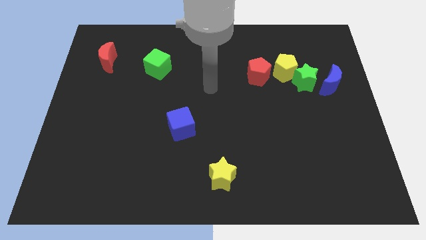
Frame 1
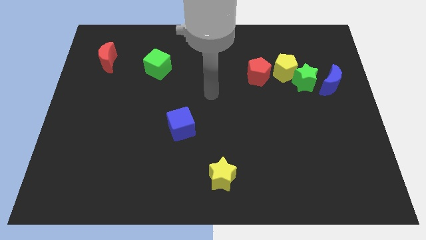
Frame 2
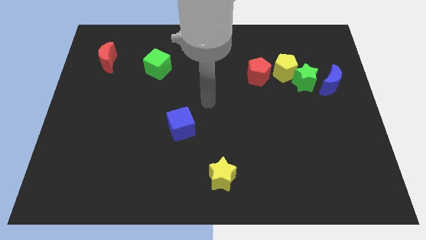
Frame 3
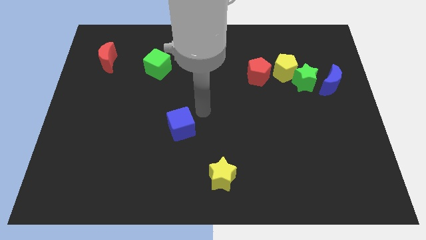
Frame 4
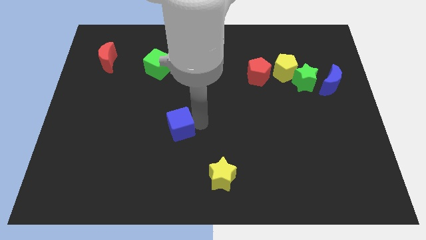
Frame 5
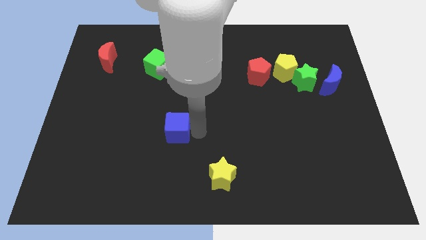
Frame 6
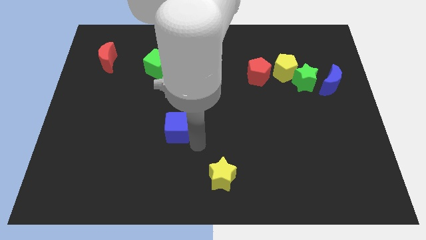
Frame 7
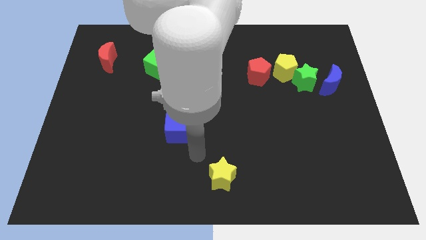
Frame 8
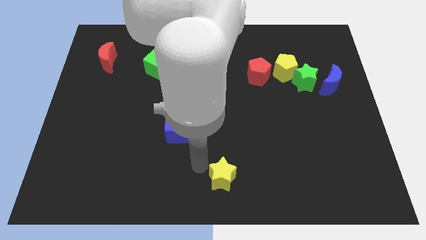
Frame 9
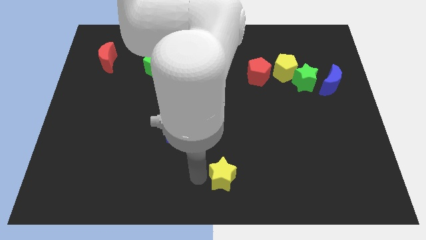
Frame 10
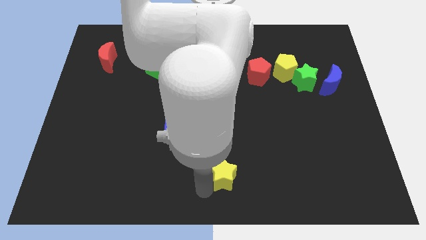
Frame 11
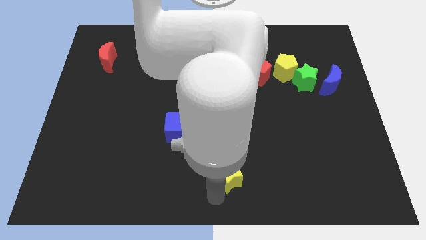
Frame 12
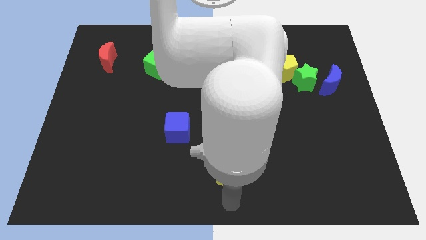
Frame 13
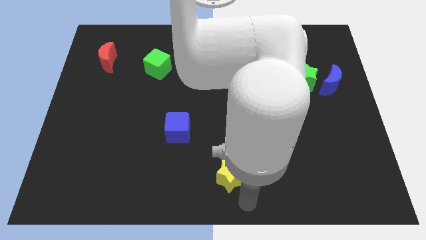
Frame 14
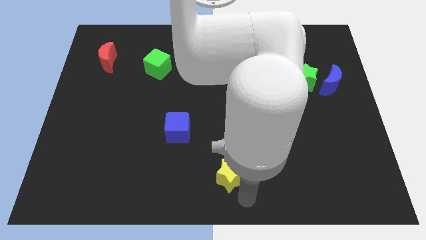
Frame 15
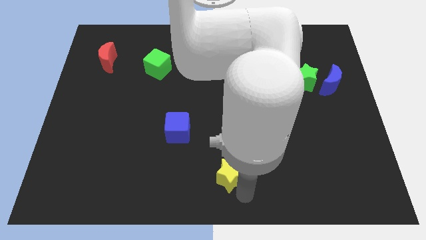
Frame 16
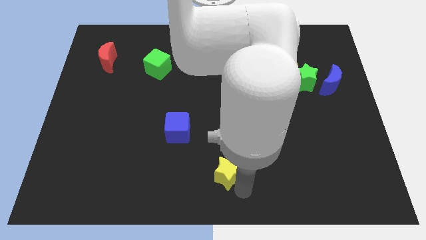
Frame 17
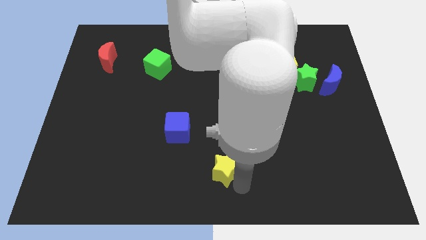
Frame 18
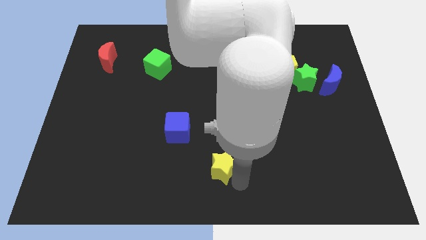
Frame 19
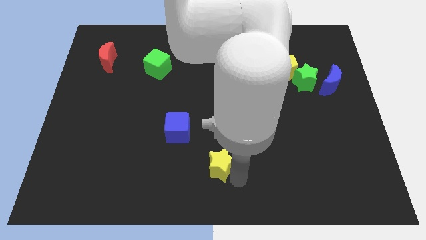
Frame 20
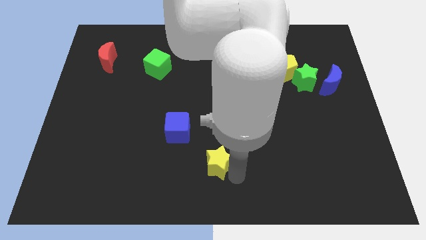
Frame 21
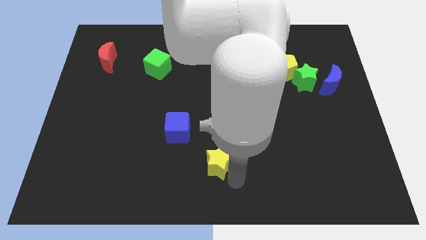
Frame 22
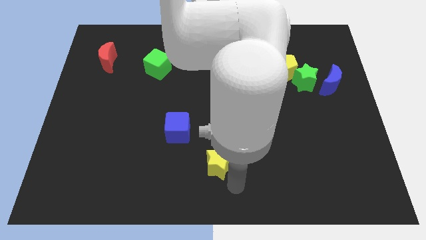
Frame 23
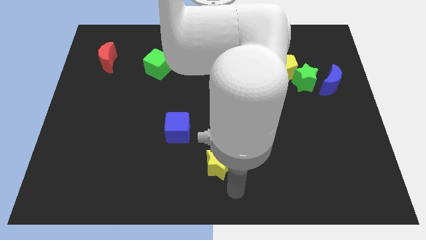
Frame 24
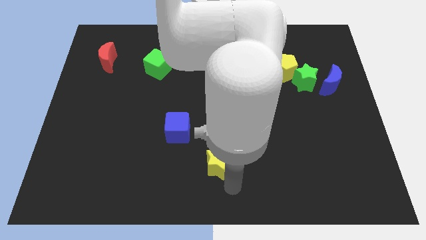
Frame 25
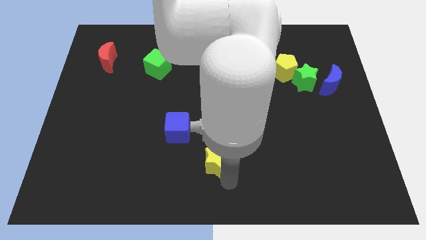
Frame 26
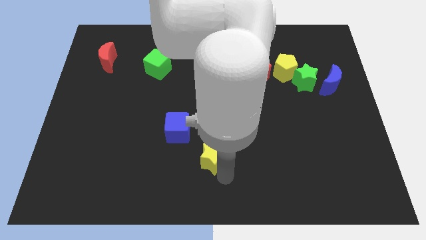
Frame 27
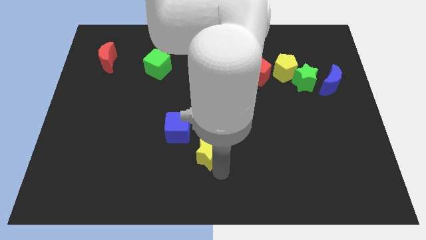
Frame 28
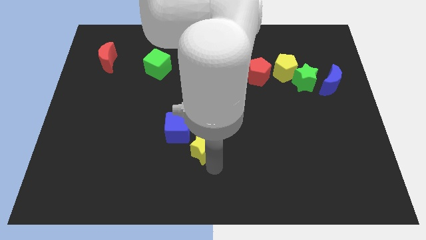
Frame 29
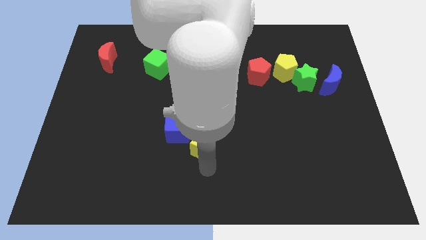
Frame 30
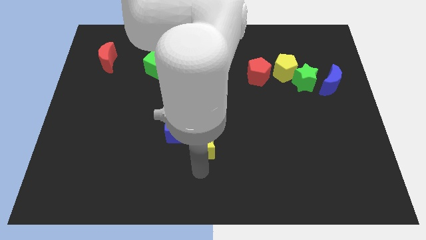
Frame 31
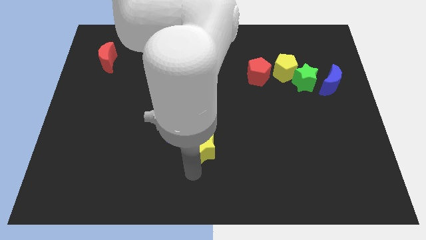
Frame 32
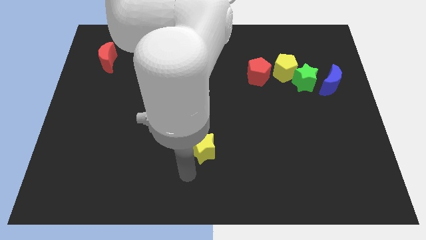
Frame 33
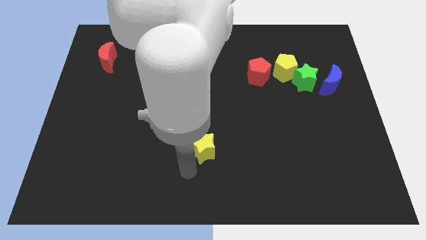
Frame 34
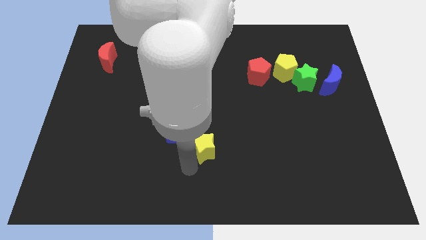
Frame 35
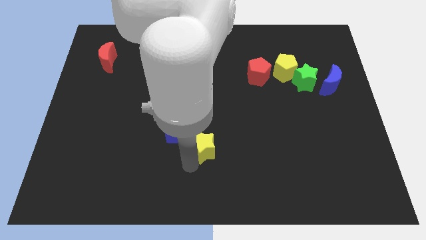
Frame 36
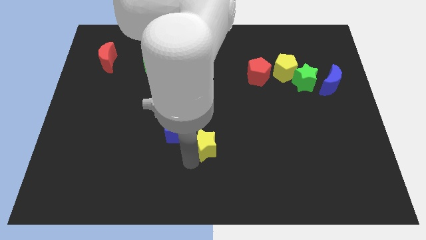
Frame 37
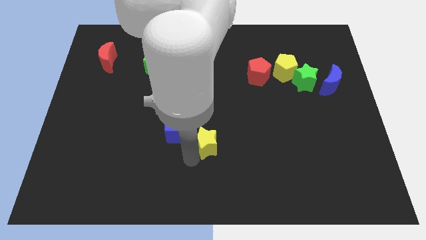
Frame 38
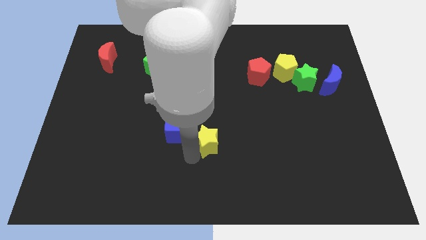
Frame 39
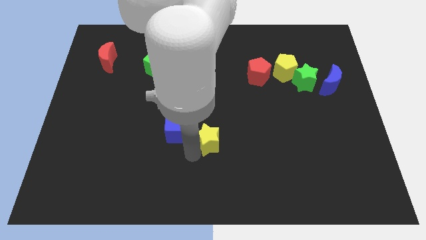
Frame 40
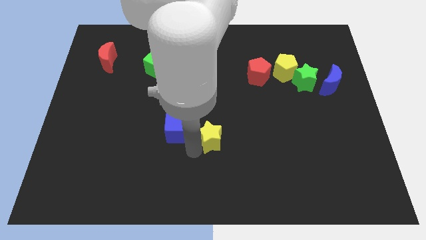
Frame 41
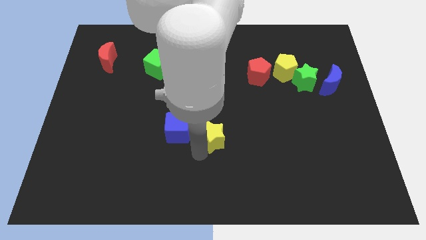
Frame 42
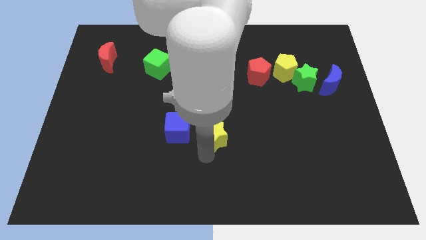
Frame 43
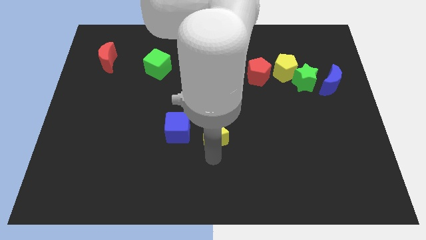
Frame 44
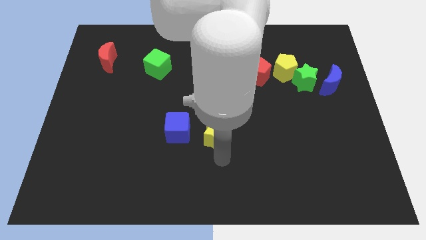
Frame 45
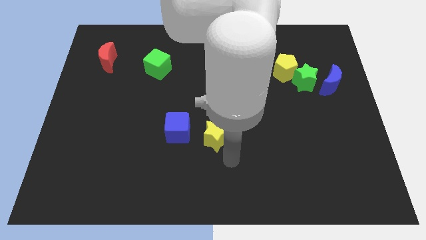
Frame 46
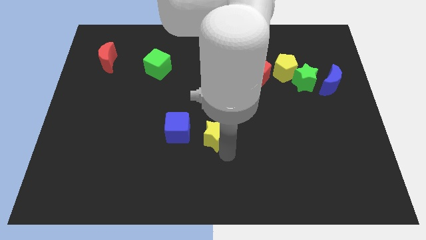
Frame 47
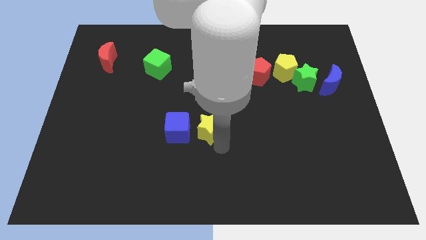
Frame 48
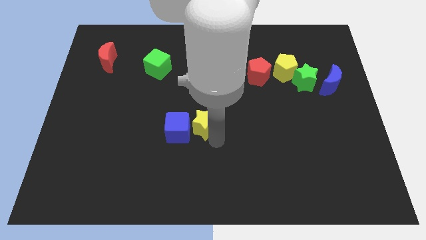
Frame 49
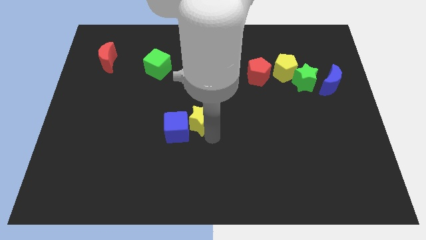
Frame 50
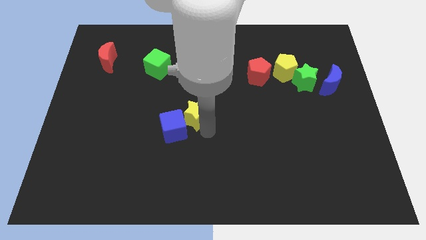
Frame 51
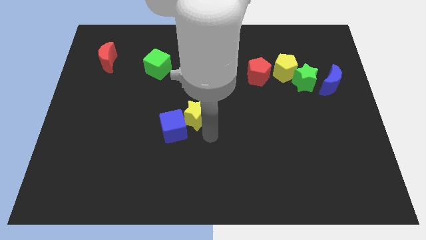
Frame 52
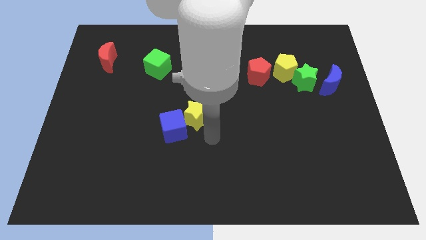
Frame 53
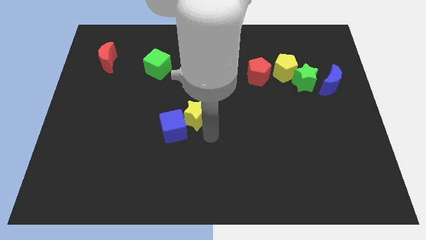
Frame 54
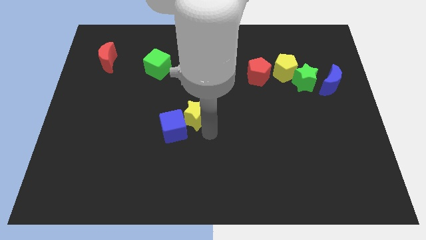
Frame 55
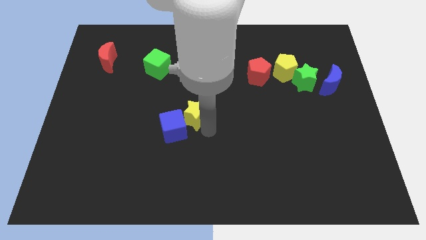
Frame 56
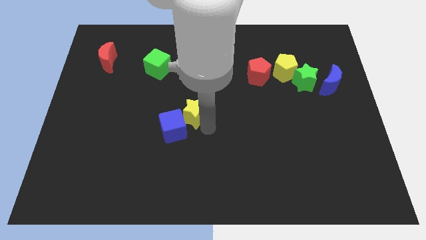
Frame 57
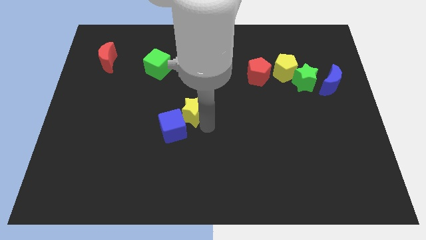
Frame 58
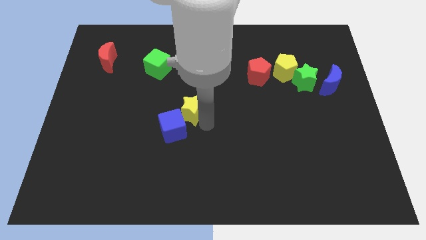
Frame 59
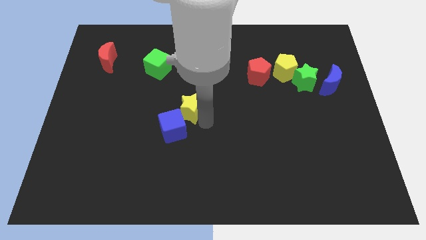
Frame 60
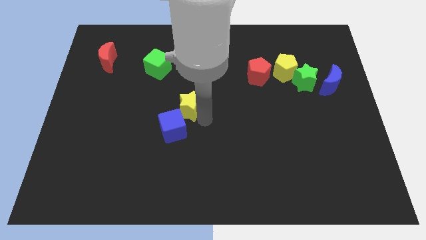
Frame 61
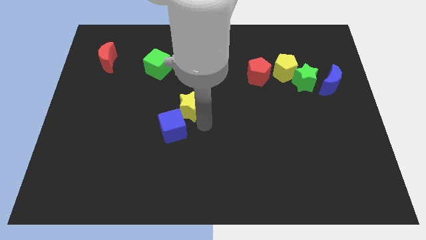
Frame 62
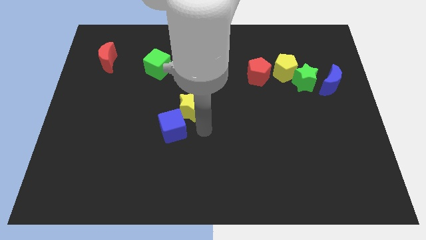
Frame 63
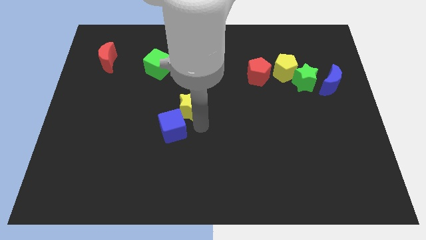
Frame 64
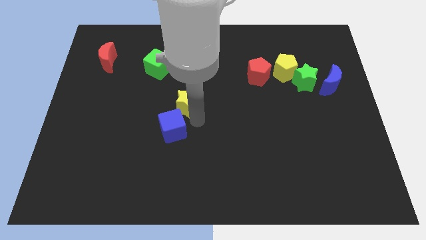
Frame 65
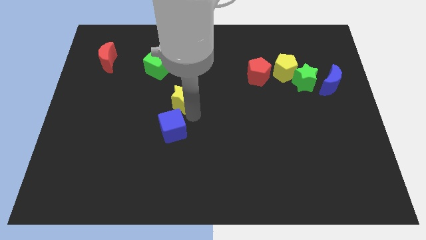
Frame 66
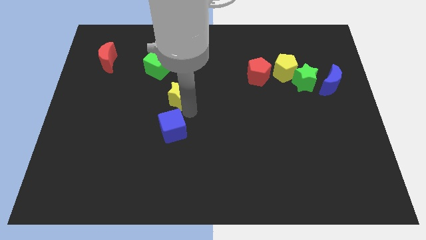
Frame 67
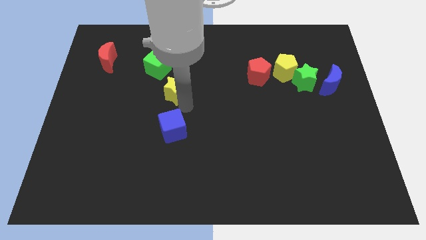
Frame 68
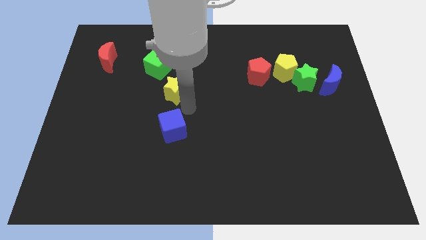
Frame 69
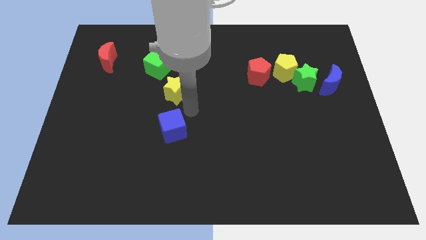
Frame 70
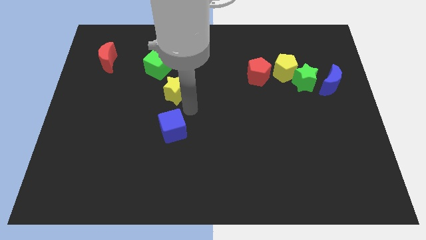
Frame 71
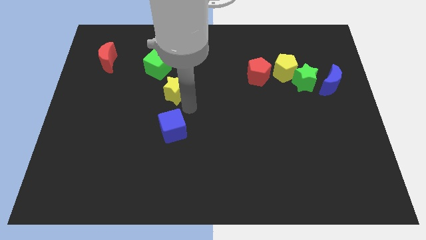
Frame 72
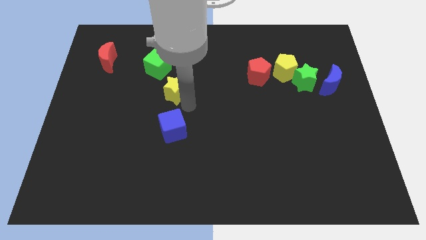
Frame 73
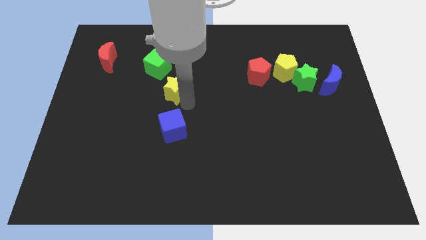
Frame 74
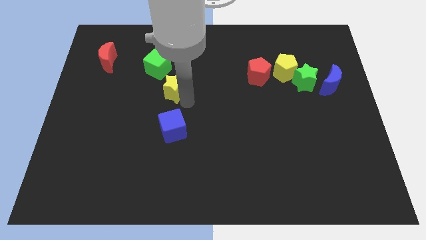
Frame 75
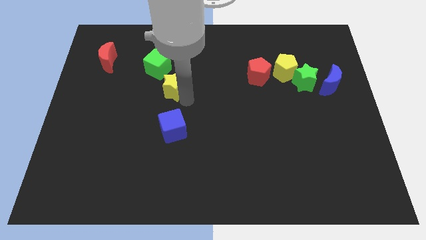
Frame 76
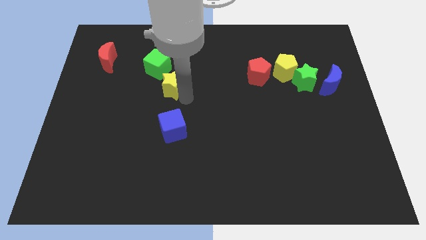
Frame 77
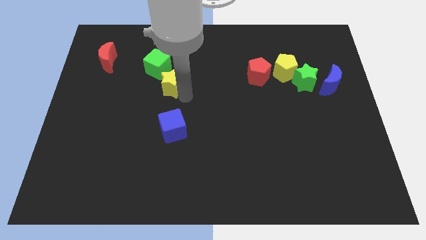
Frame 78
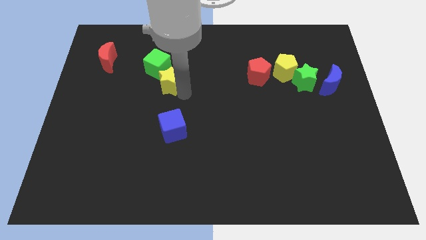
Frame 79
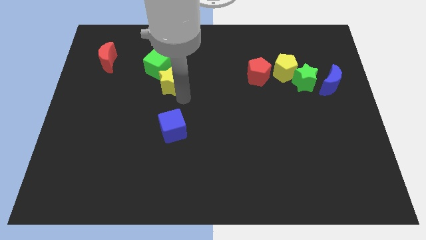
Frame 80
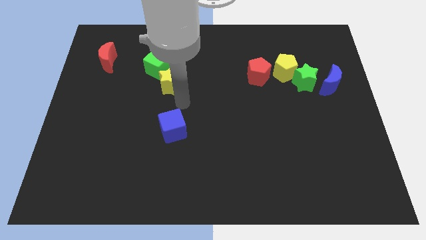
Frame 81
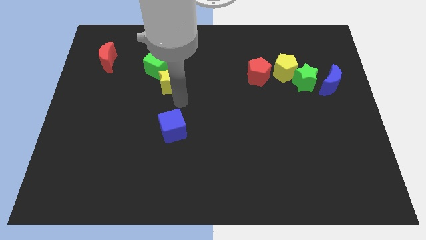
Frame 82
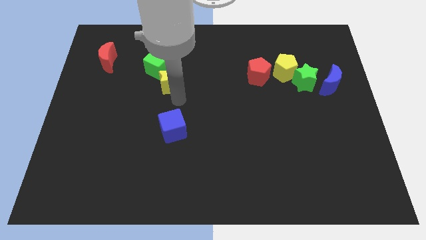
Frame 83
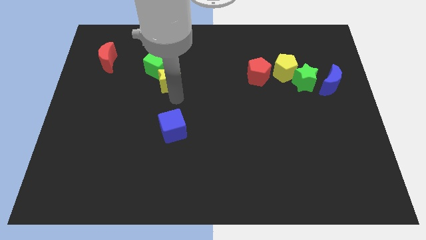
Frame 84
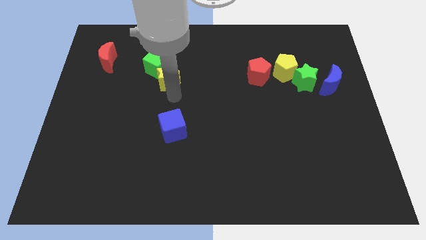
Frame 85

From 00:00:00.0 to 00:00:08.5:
slide the yellow star close to the green cube

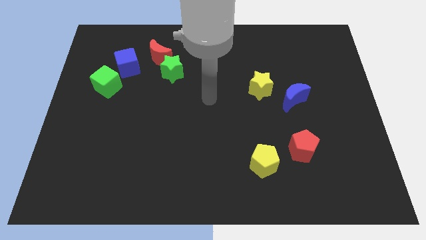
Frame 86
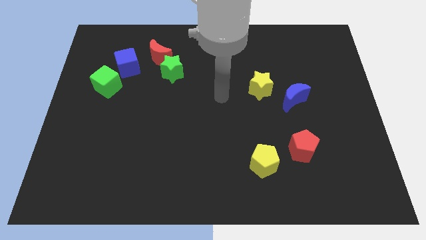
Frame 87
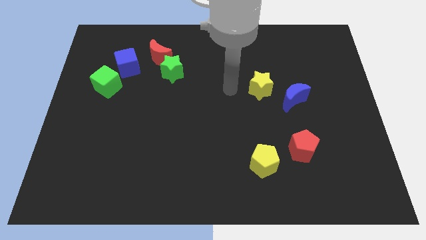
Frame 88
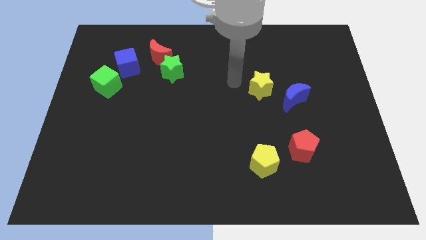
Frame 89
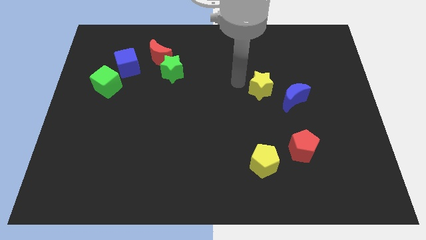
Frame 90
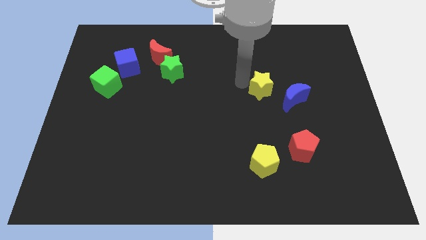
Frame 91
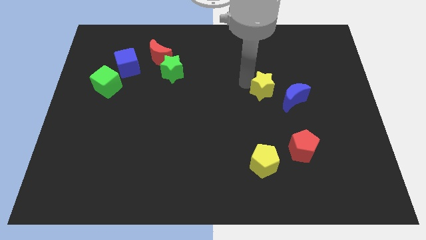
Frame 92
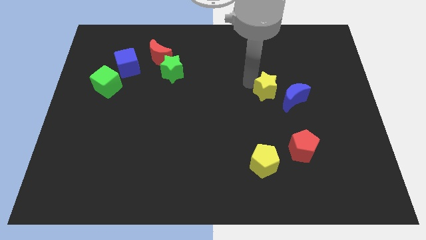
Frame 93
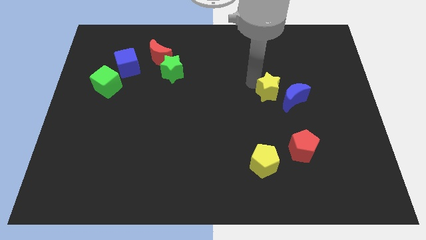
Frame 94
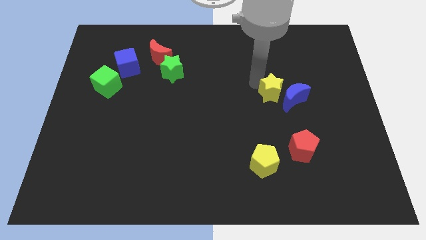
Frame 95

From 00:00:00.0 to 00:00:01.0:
put the yellow star to the blue moon
